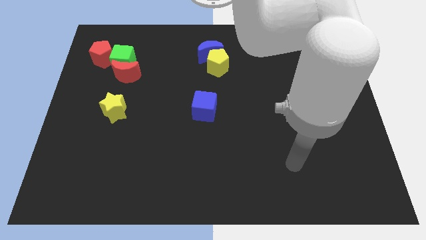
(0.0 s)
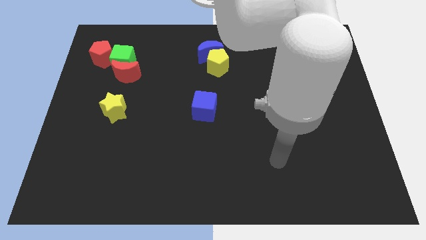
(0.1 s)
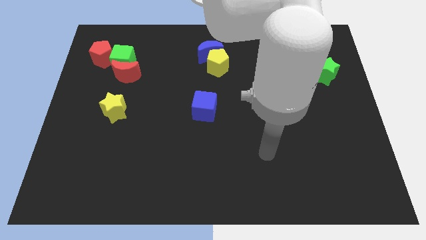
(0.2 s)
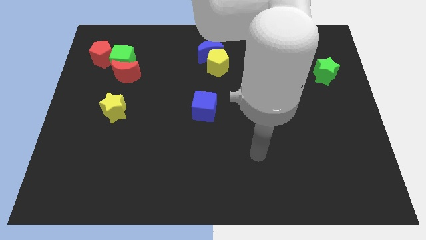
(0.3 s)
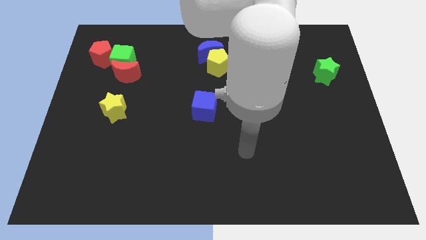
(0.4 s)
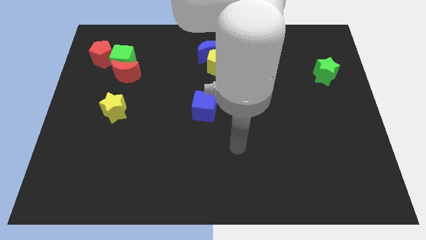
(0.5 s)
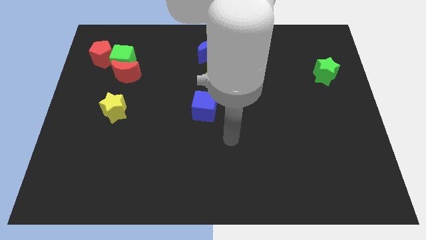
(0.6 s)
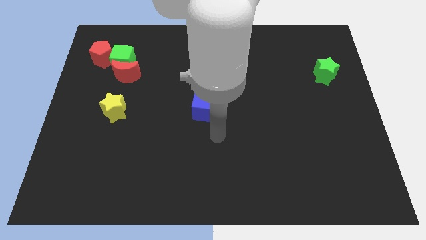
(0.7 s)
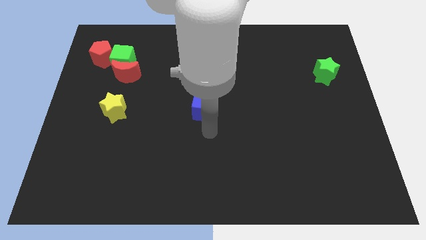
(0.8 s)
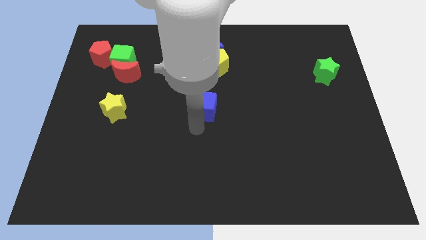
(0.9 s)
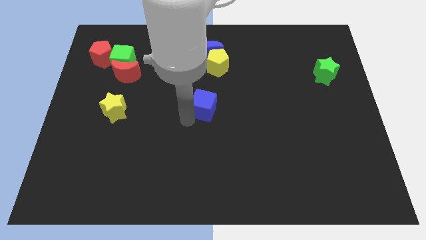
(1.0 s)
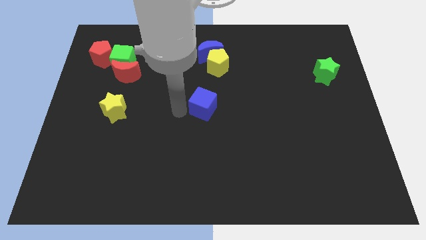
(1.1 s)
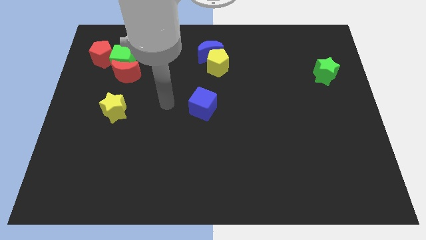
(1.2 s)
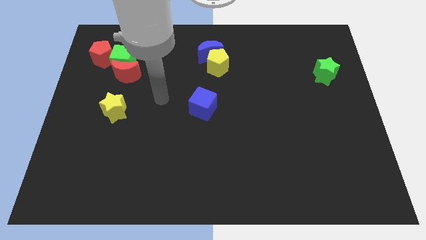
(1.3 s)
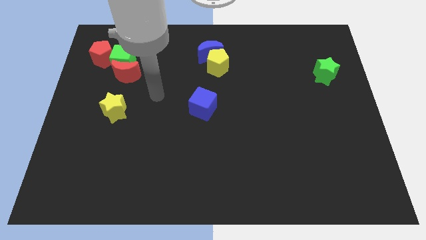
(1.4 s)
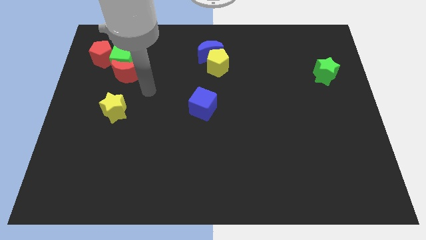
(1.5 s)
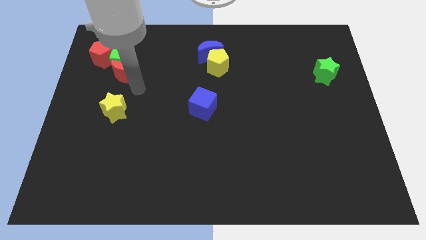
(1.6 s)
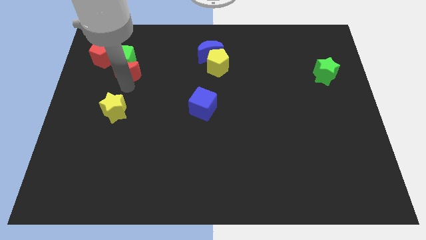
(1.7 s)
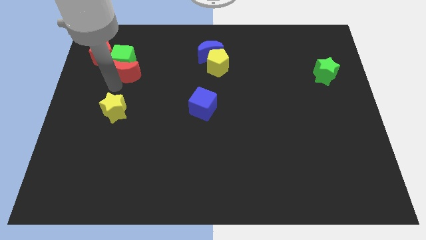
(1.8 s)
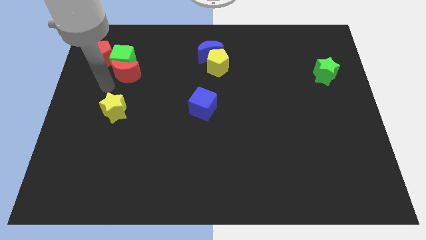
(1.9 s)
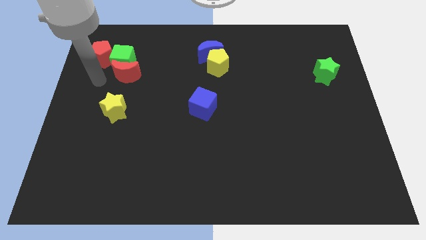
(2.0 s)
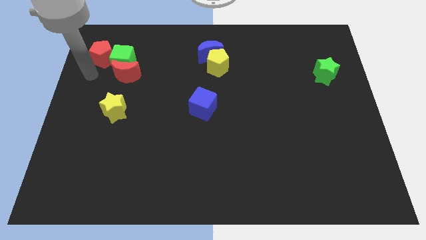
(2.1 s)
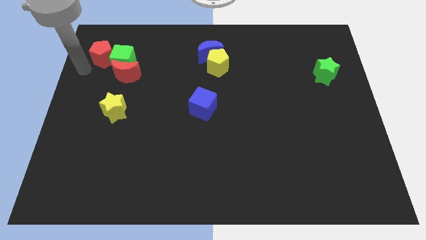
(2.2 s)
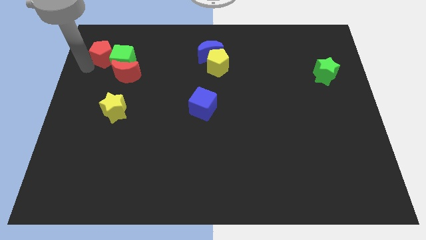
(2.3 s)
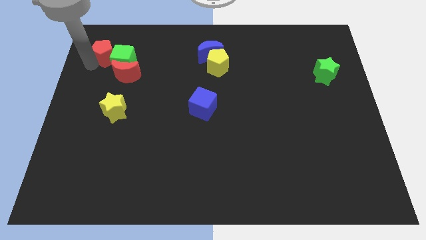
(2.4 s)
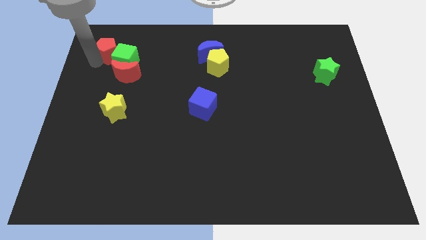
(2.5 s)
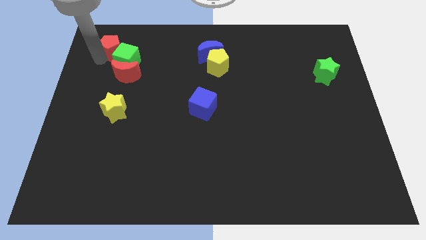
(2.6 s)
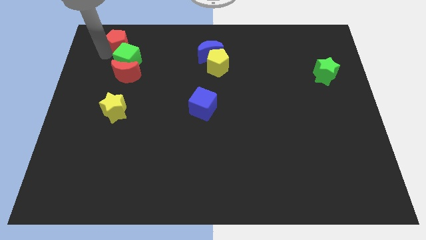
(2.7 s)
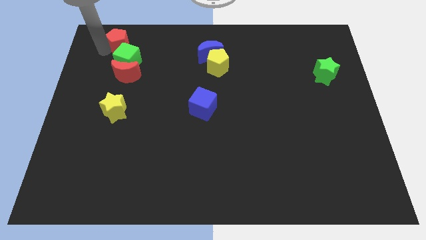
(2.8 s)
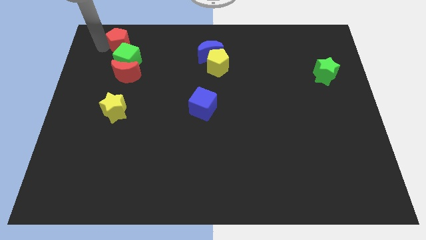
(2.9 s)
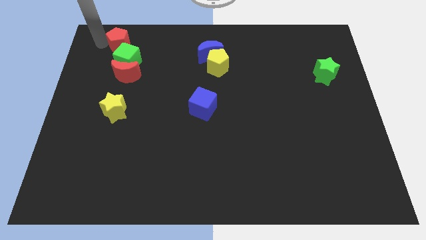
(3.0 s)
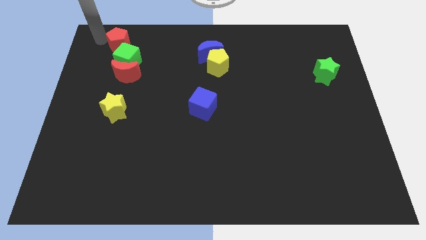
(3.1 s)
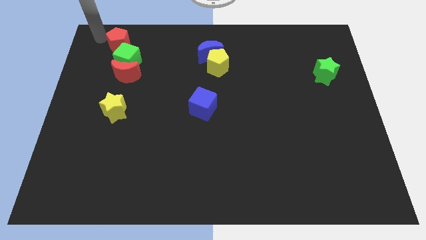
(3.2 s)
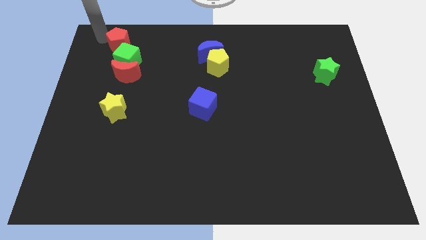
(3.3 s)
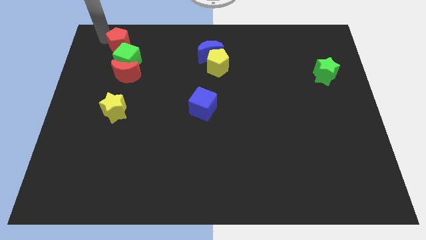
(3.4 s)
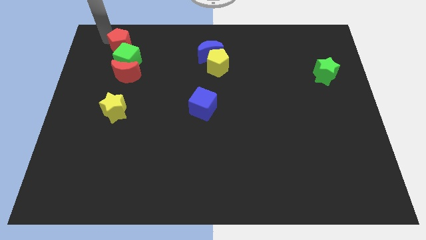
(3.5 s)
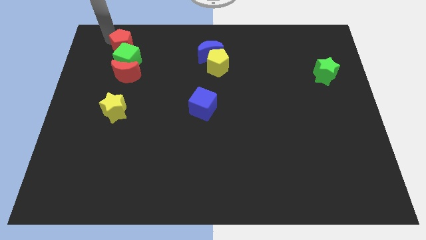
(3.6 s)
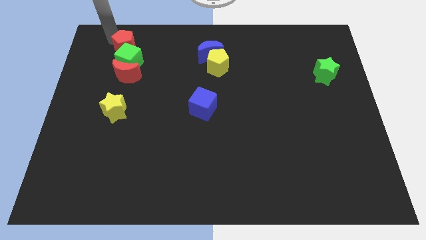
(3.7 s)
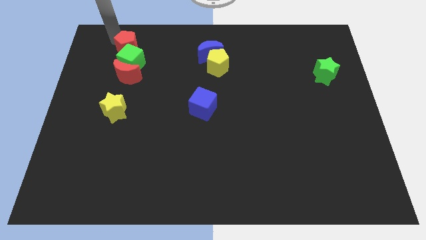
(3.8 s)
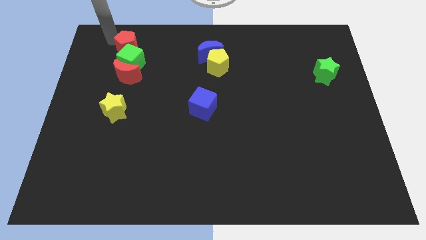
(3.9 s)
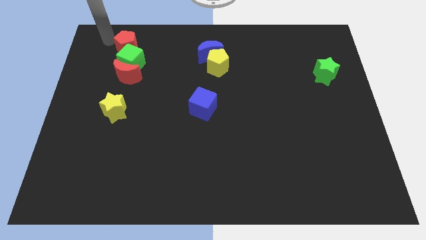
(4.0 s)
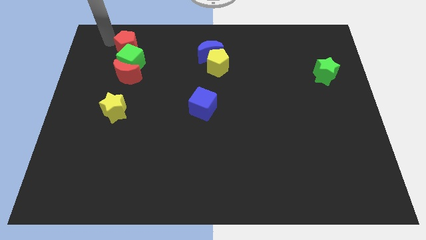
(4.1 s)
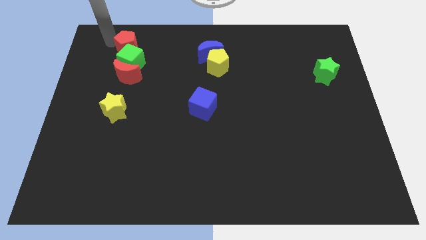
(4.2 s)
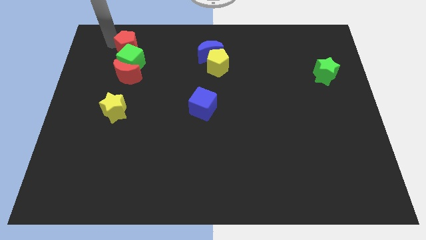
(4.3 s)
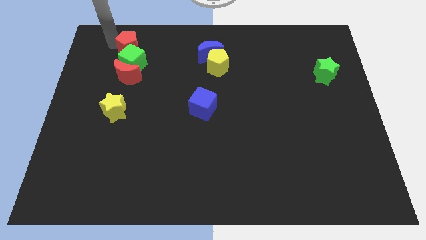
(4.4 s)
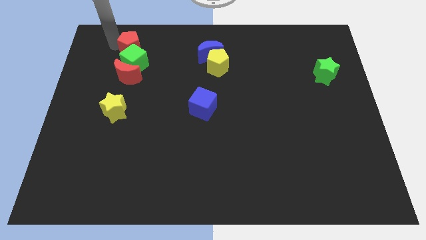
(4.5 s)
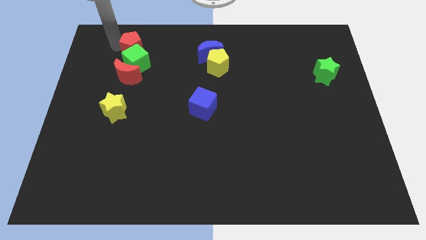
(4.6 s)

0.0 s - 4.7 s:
move the red pentagon a little right

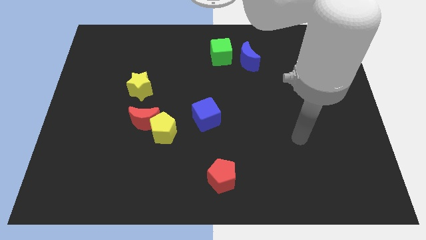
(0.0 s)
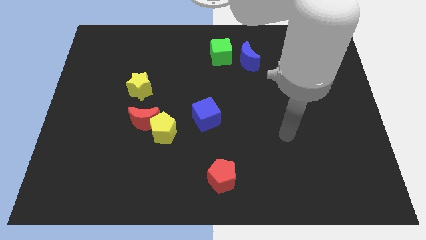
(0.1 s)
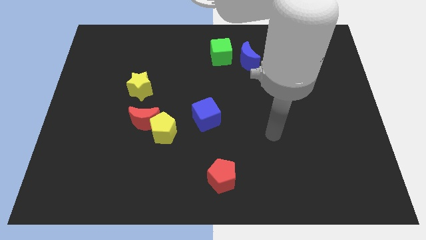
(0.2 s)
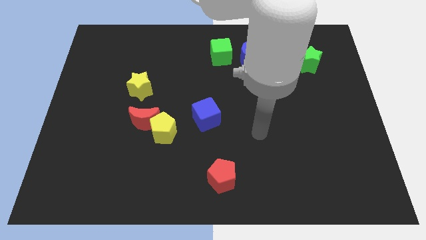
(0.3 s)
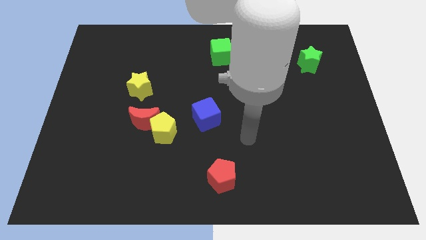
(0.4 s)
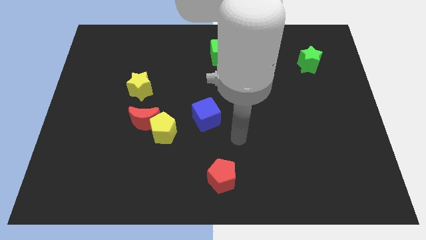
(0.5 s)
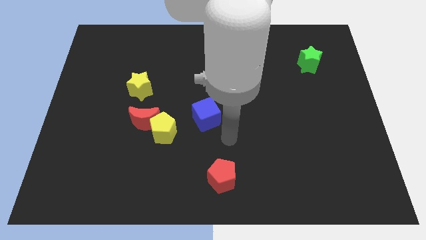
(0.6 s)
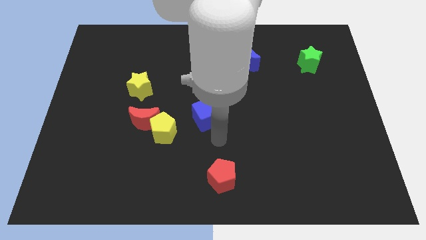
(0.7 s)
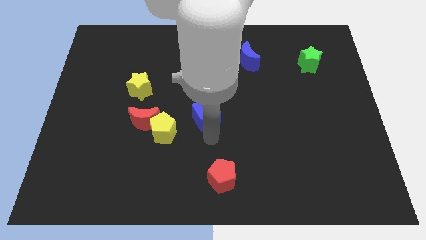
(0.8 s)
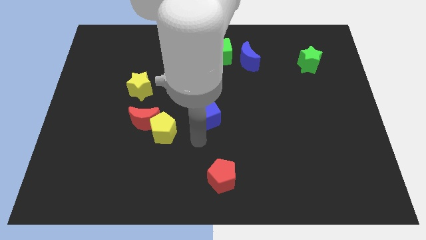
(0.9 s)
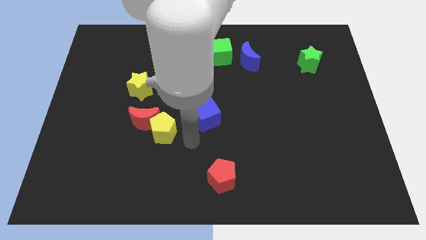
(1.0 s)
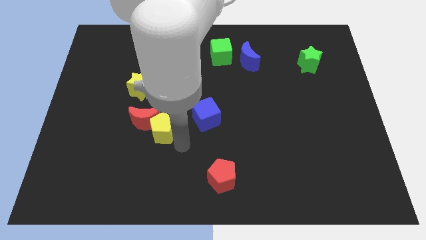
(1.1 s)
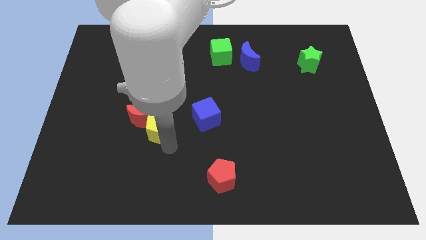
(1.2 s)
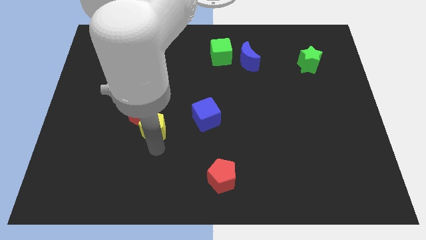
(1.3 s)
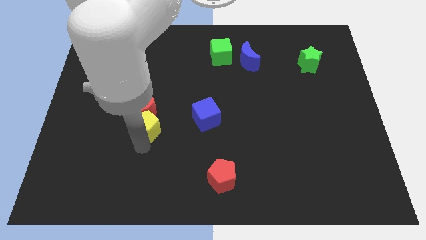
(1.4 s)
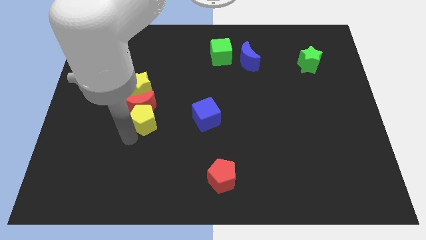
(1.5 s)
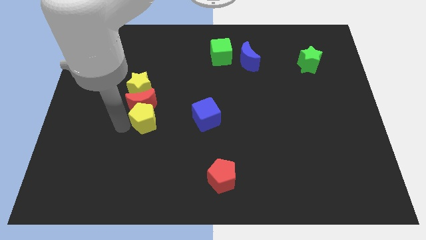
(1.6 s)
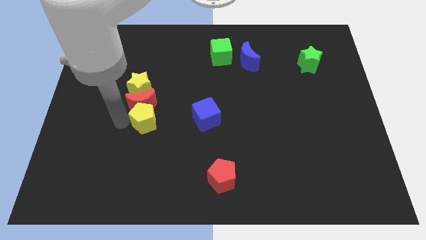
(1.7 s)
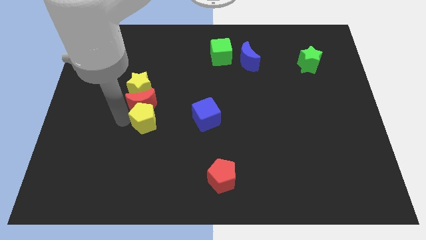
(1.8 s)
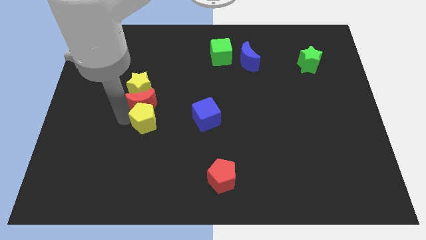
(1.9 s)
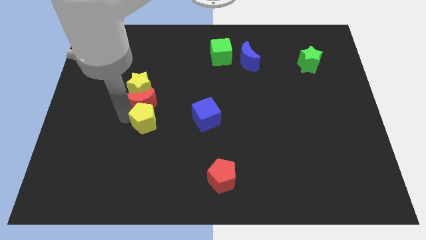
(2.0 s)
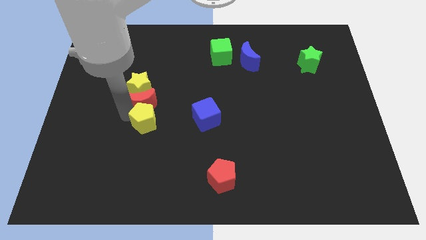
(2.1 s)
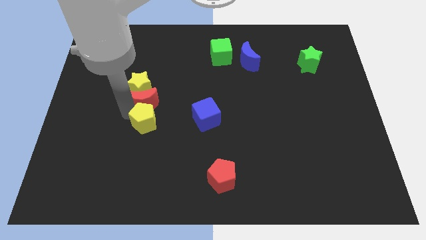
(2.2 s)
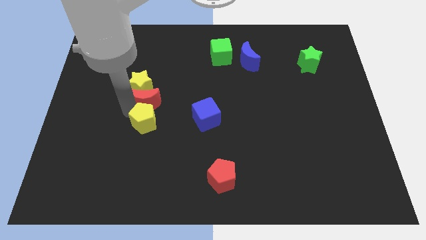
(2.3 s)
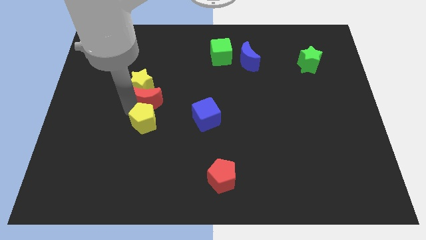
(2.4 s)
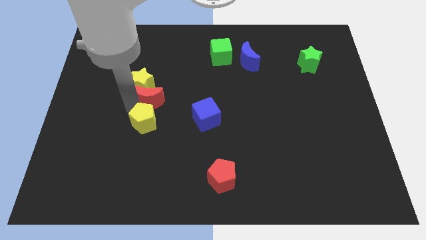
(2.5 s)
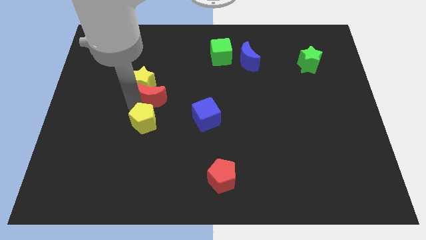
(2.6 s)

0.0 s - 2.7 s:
move the red moon somewhat up

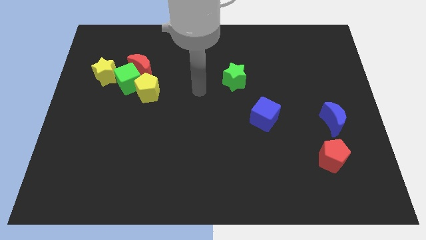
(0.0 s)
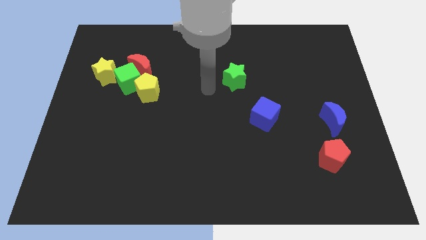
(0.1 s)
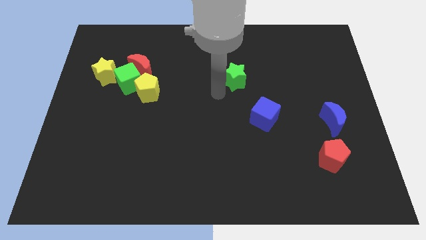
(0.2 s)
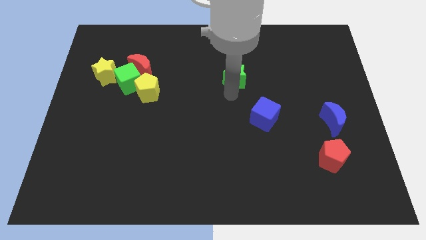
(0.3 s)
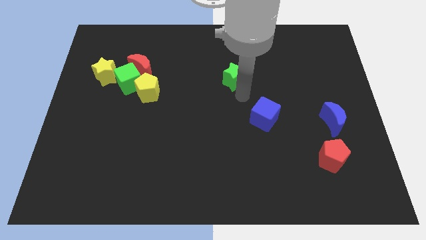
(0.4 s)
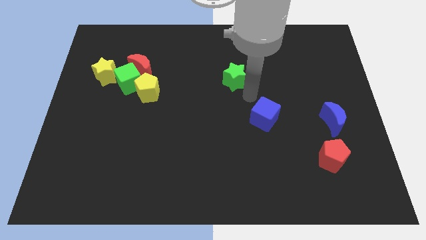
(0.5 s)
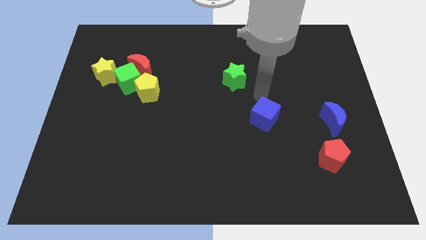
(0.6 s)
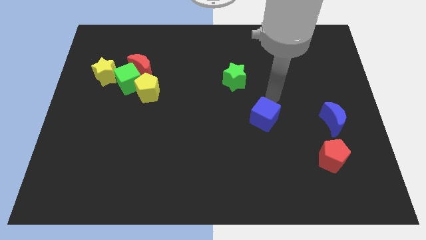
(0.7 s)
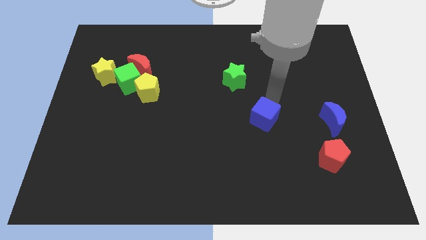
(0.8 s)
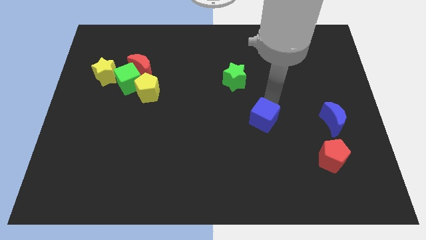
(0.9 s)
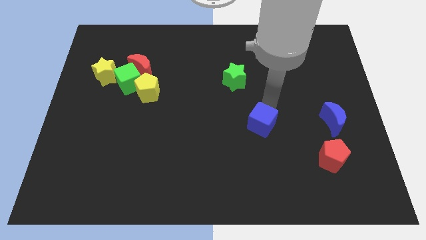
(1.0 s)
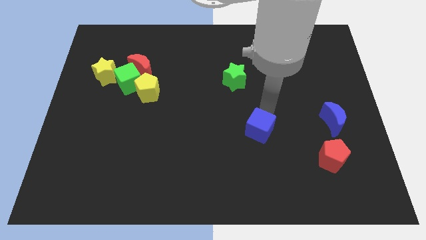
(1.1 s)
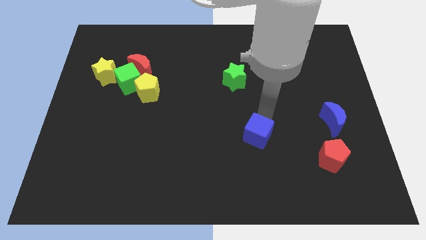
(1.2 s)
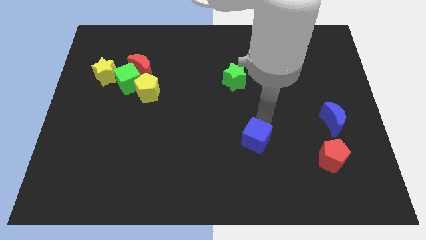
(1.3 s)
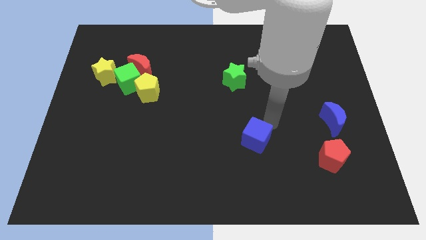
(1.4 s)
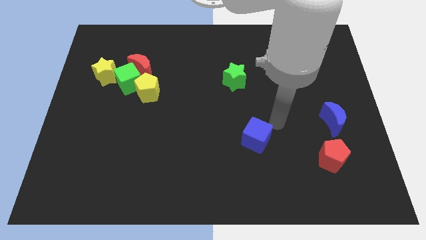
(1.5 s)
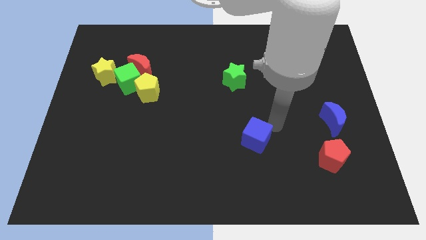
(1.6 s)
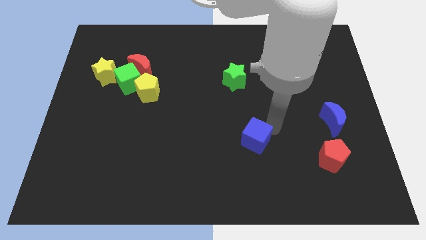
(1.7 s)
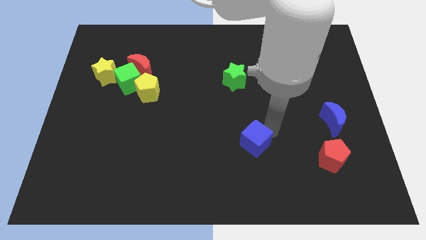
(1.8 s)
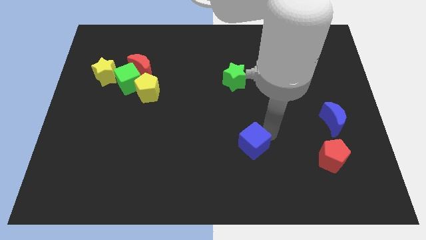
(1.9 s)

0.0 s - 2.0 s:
slightly slide the blue cube down and to the left
